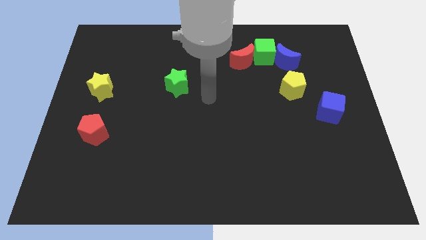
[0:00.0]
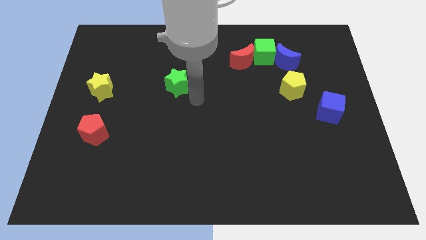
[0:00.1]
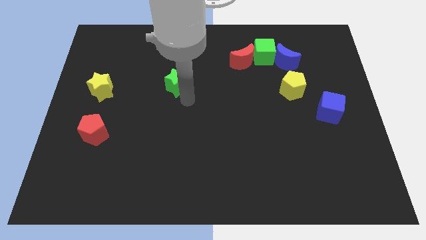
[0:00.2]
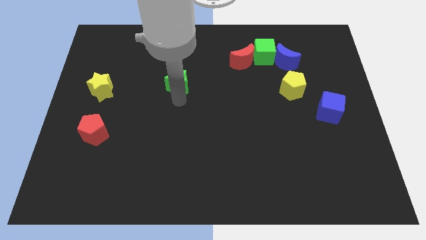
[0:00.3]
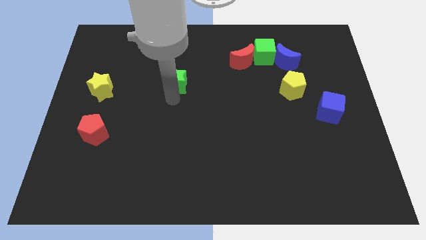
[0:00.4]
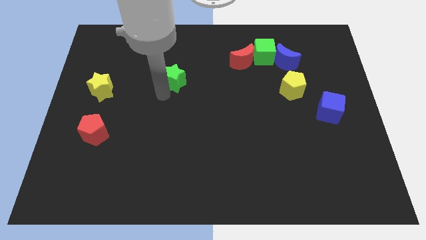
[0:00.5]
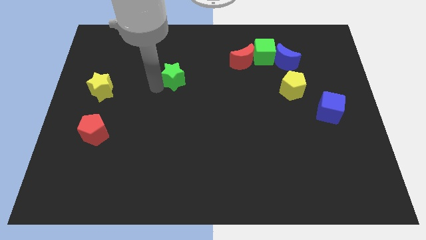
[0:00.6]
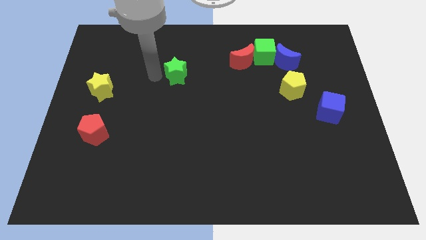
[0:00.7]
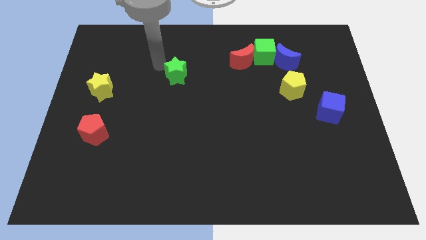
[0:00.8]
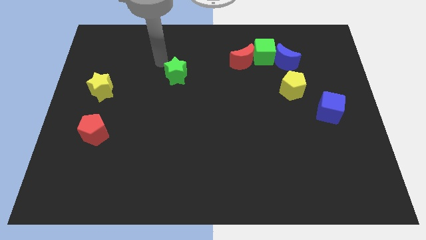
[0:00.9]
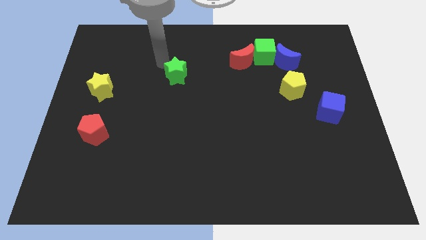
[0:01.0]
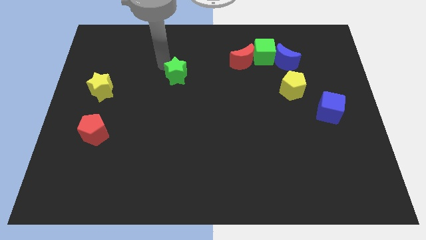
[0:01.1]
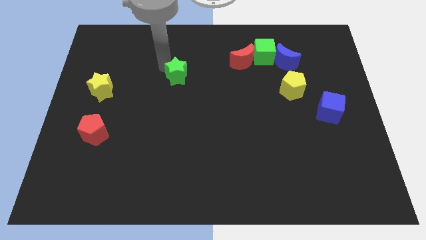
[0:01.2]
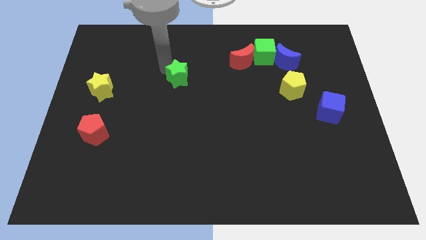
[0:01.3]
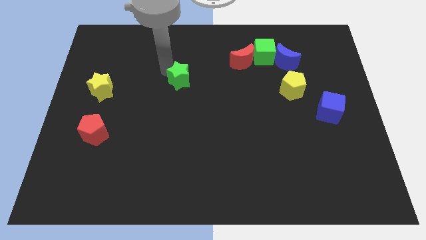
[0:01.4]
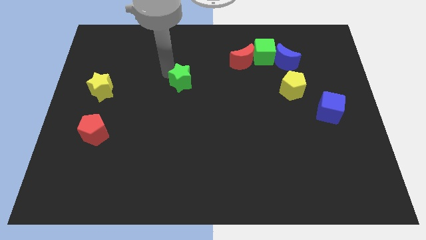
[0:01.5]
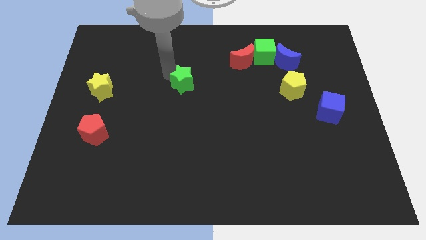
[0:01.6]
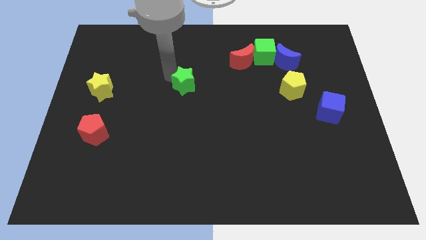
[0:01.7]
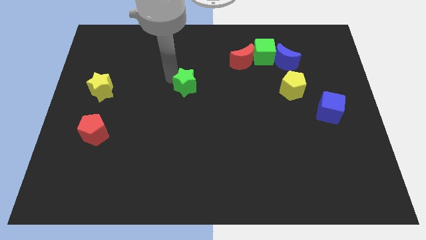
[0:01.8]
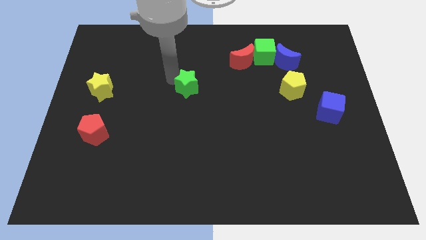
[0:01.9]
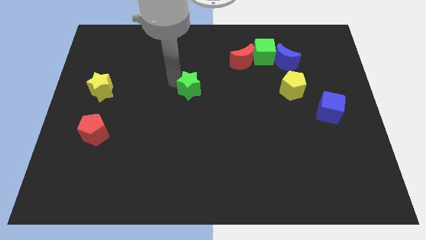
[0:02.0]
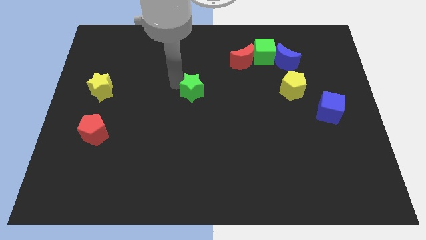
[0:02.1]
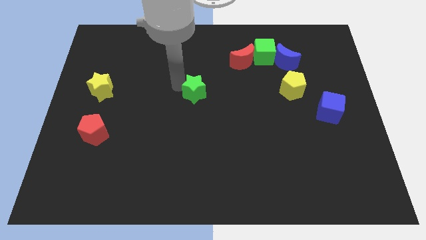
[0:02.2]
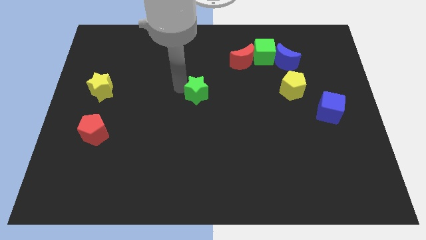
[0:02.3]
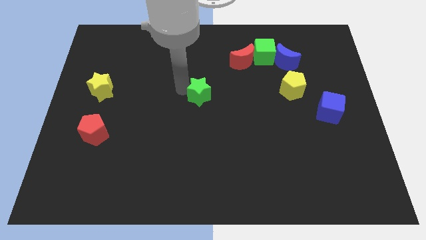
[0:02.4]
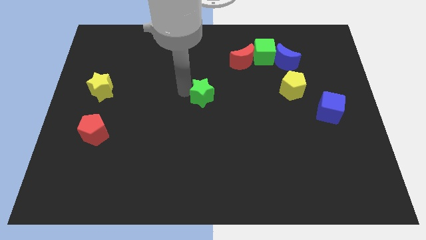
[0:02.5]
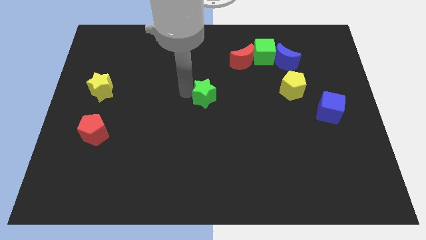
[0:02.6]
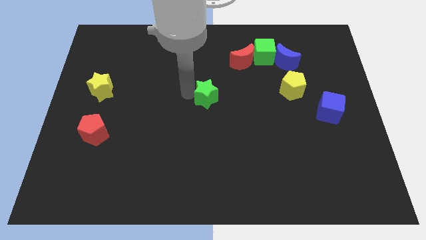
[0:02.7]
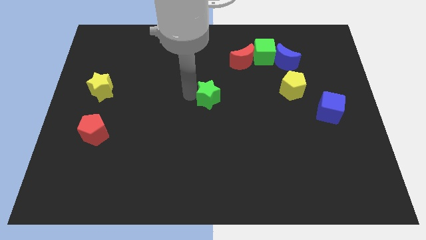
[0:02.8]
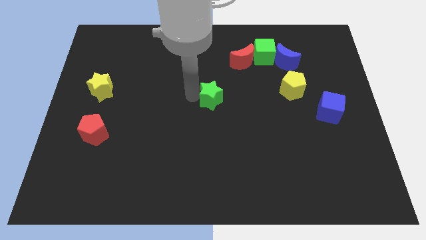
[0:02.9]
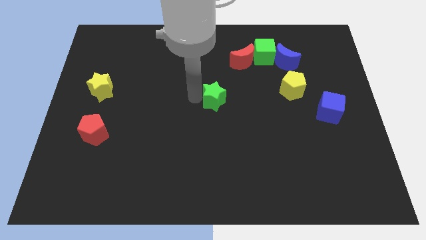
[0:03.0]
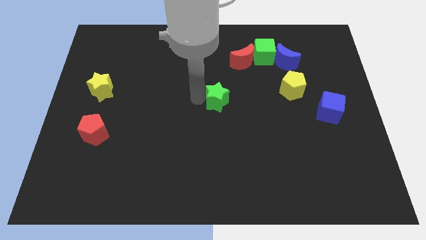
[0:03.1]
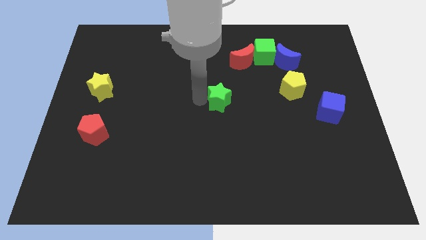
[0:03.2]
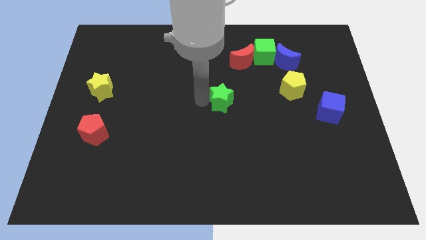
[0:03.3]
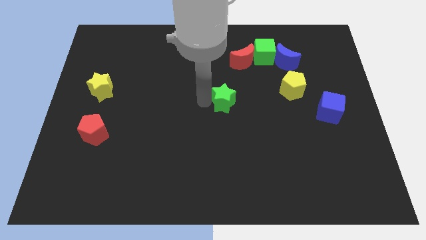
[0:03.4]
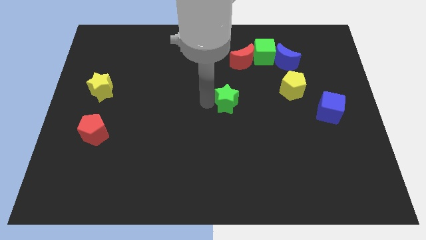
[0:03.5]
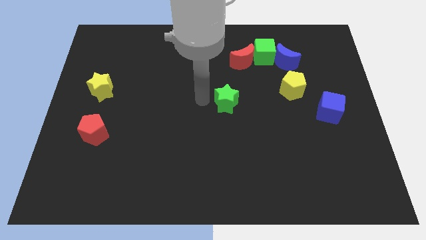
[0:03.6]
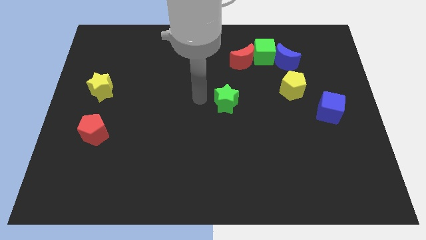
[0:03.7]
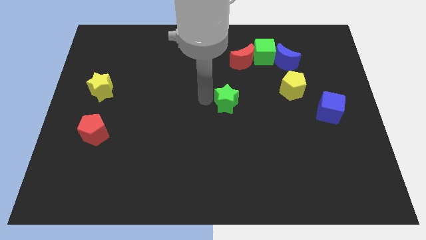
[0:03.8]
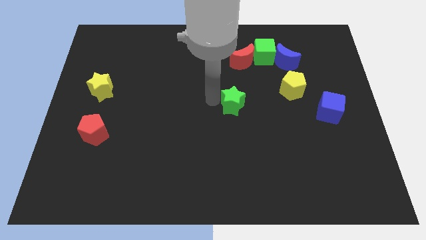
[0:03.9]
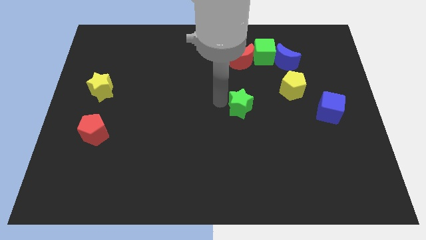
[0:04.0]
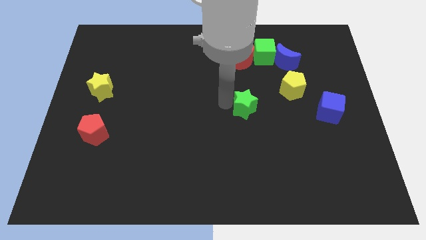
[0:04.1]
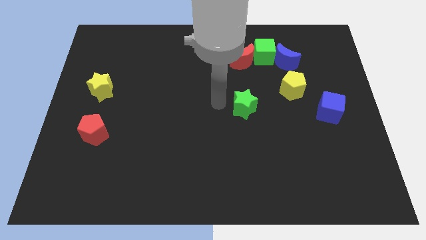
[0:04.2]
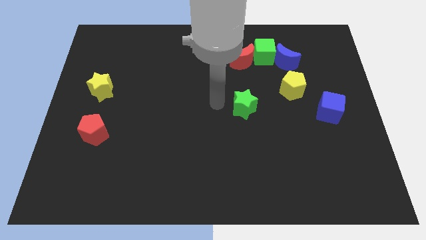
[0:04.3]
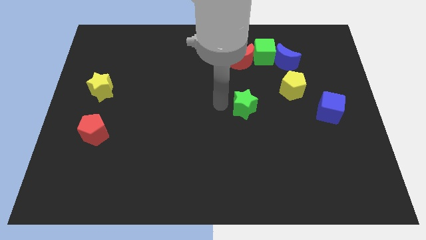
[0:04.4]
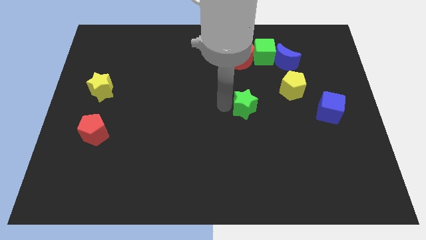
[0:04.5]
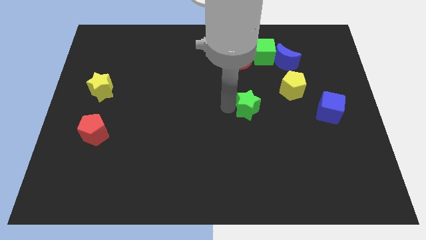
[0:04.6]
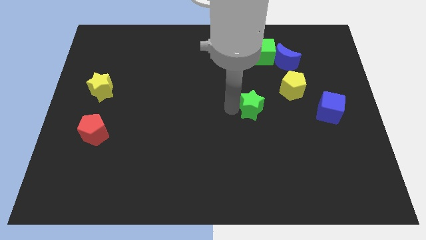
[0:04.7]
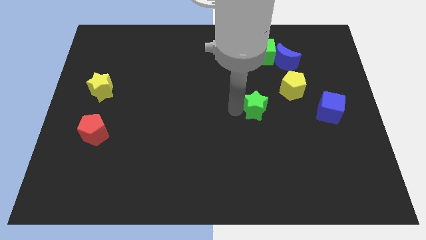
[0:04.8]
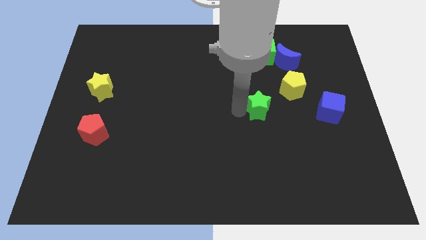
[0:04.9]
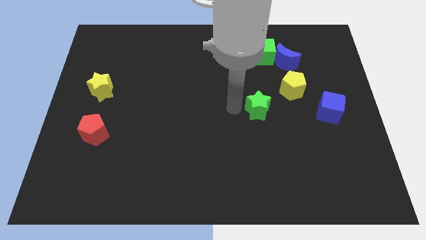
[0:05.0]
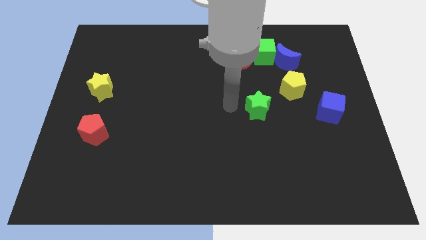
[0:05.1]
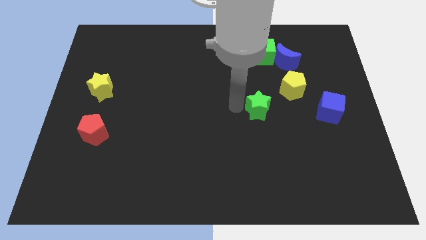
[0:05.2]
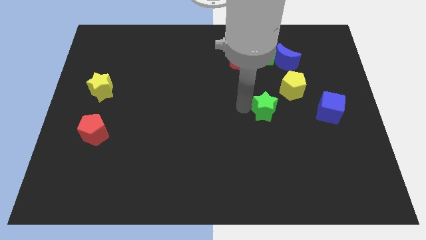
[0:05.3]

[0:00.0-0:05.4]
put the green star left of the blue cube

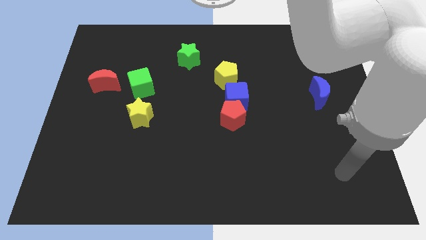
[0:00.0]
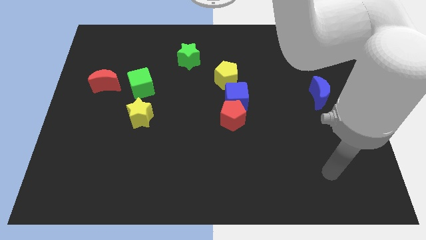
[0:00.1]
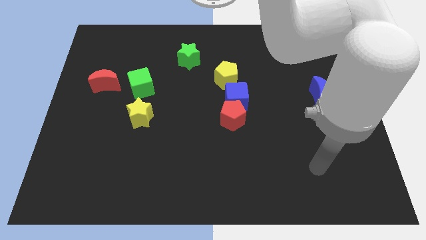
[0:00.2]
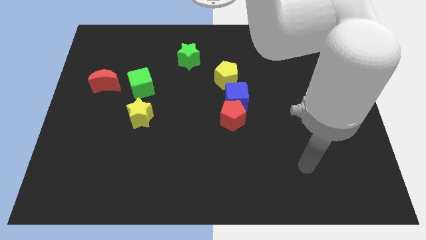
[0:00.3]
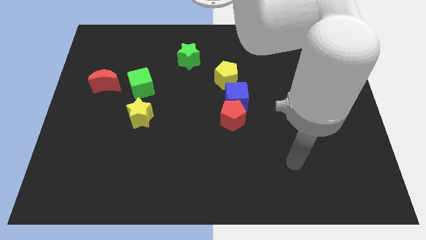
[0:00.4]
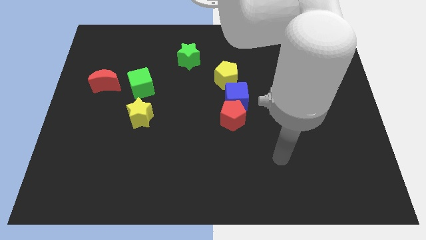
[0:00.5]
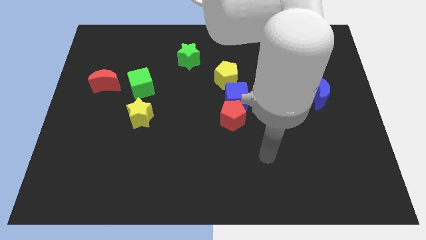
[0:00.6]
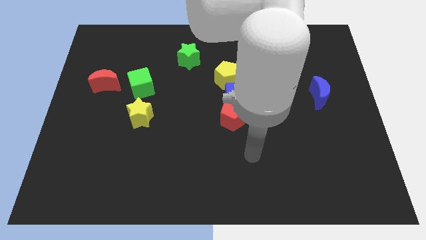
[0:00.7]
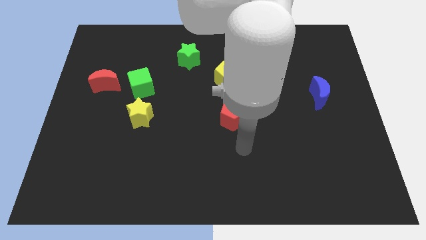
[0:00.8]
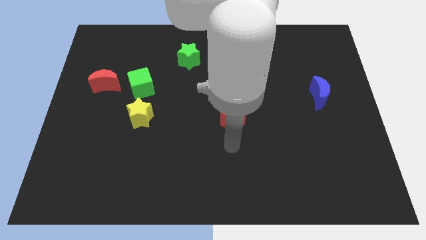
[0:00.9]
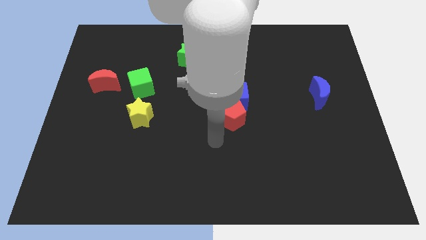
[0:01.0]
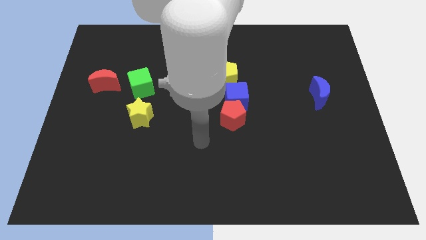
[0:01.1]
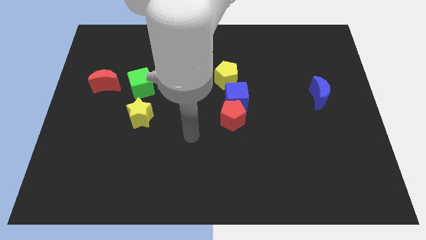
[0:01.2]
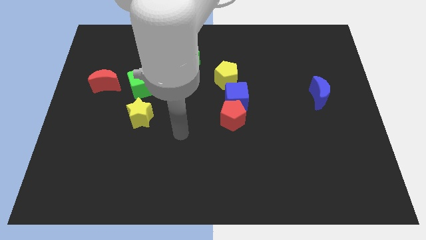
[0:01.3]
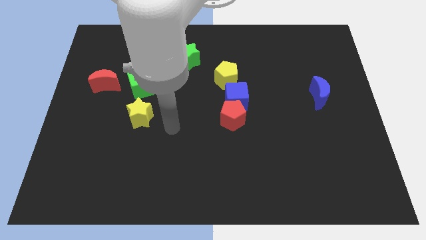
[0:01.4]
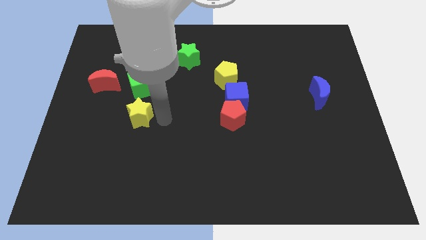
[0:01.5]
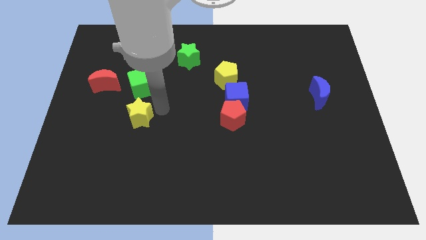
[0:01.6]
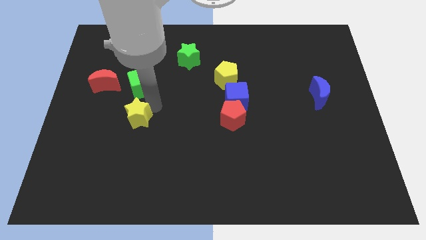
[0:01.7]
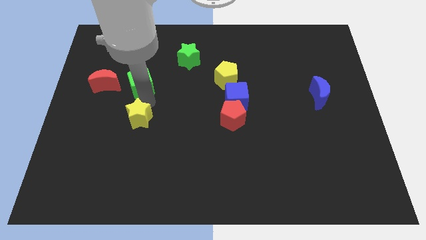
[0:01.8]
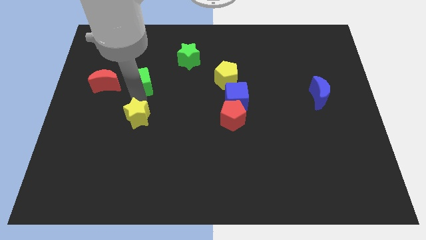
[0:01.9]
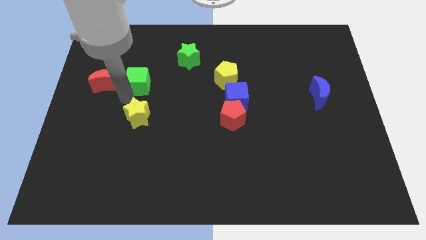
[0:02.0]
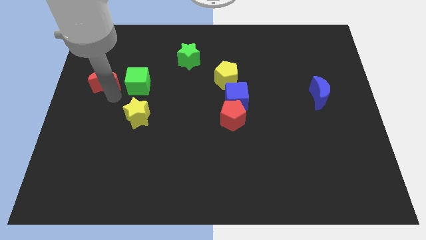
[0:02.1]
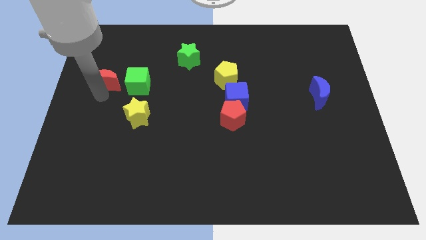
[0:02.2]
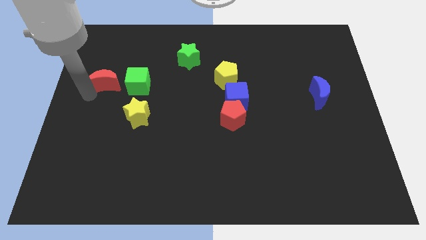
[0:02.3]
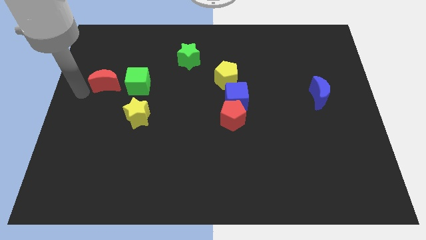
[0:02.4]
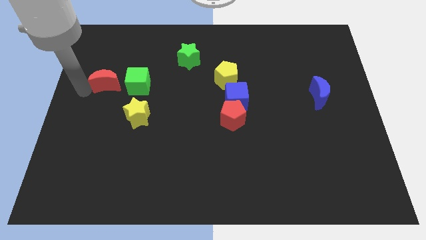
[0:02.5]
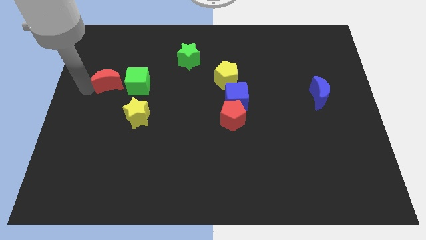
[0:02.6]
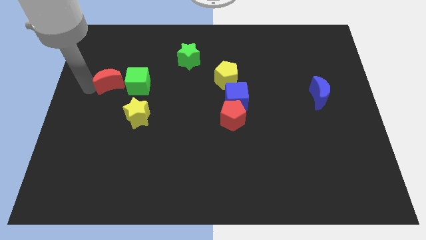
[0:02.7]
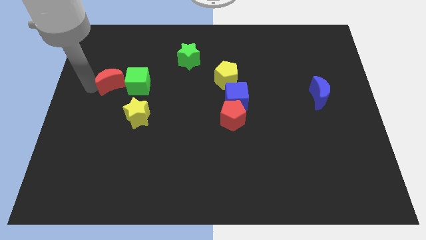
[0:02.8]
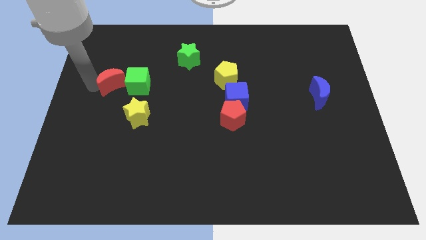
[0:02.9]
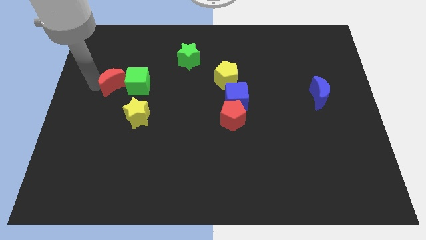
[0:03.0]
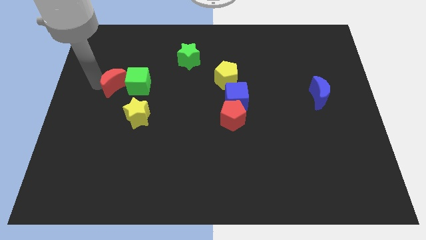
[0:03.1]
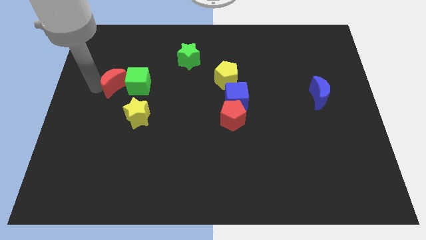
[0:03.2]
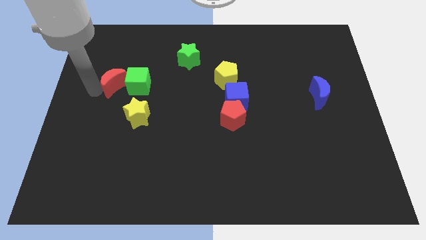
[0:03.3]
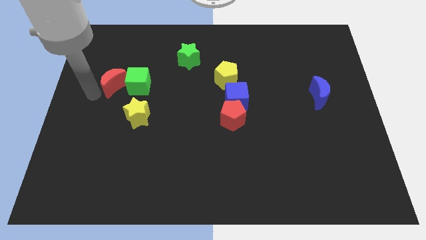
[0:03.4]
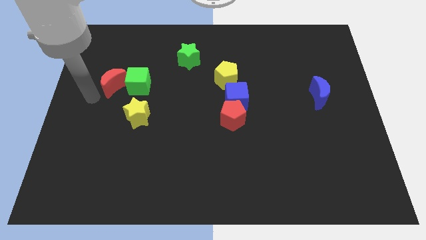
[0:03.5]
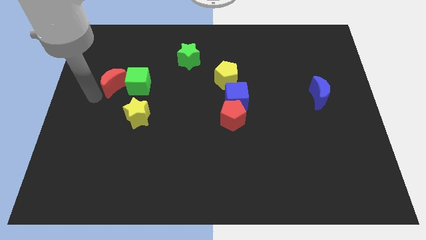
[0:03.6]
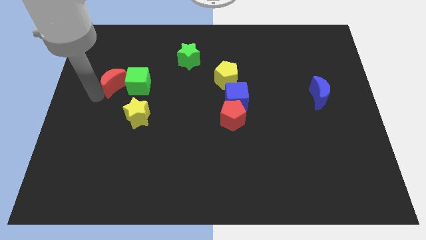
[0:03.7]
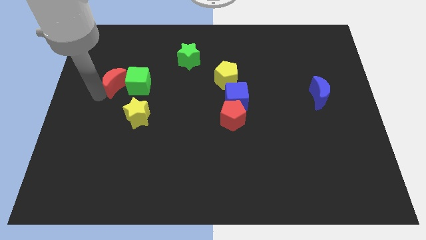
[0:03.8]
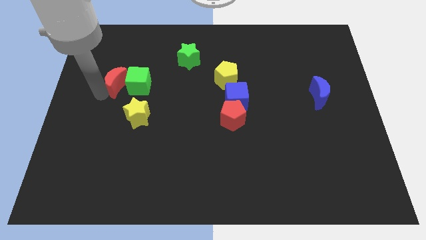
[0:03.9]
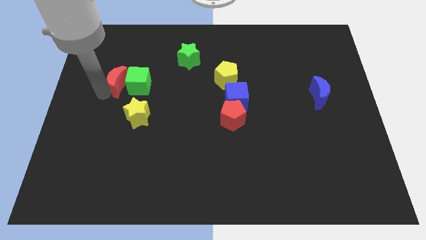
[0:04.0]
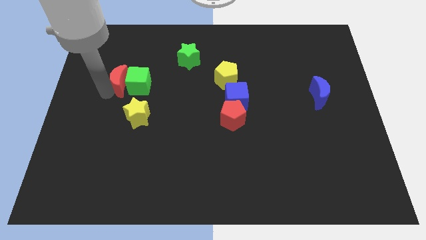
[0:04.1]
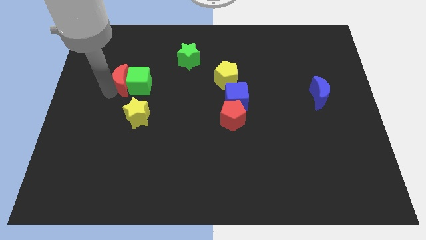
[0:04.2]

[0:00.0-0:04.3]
slide the red moon to the top side of the yellow star
